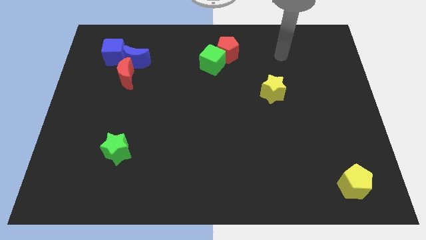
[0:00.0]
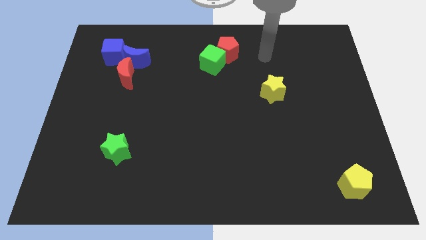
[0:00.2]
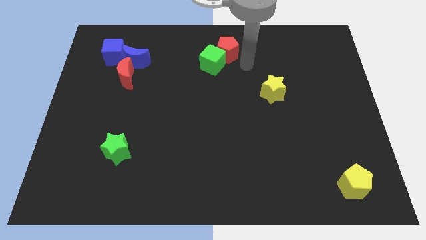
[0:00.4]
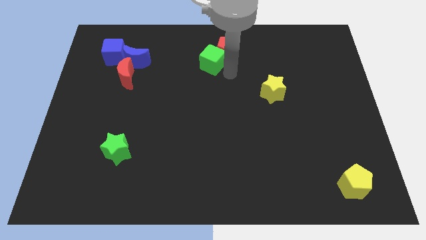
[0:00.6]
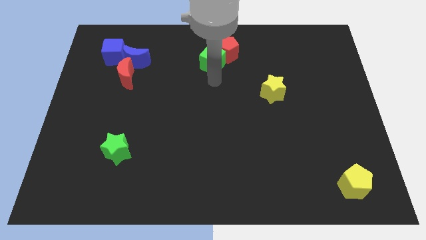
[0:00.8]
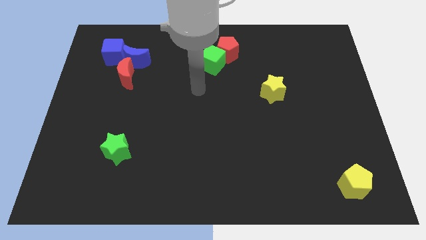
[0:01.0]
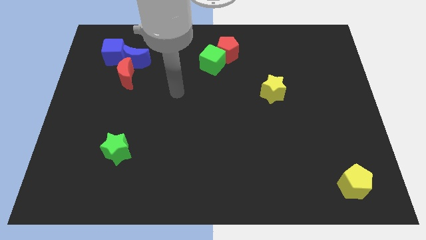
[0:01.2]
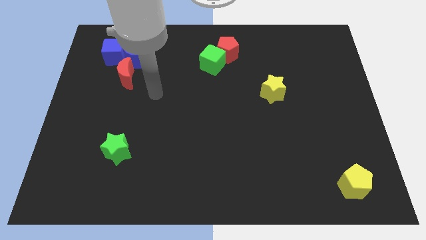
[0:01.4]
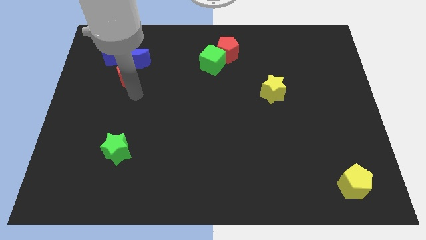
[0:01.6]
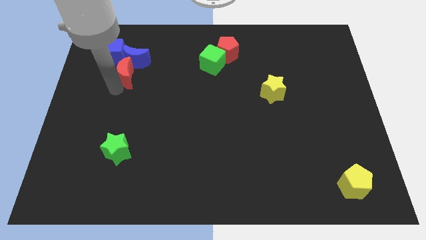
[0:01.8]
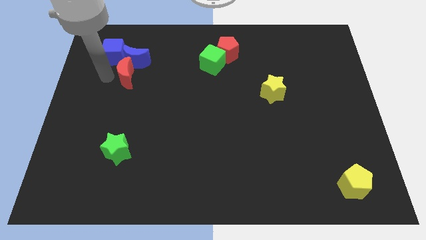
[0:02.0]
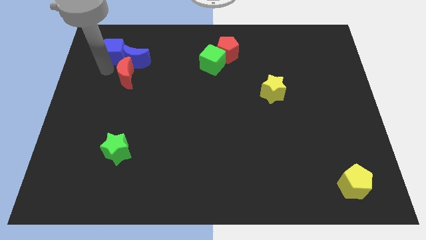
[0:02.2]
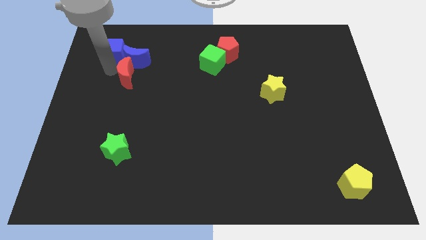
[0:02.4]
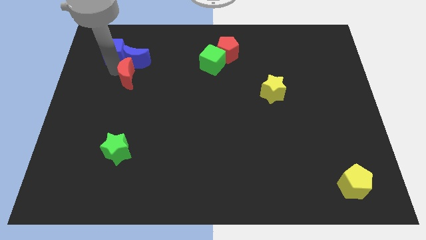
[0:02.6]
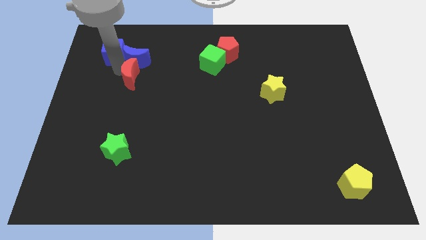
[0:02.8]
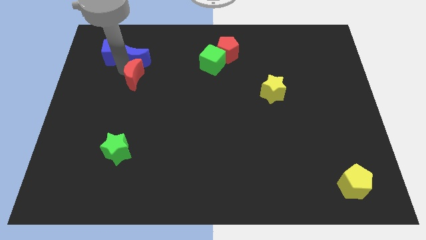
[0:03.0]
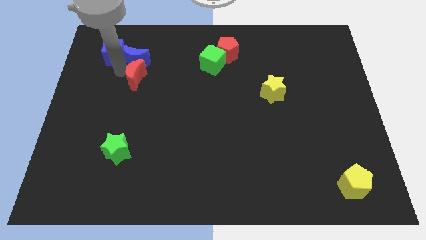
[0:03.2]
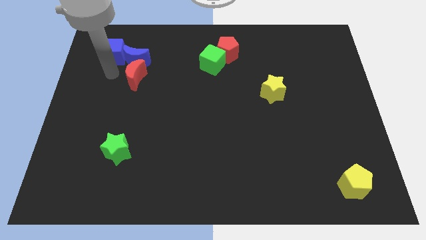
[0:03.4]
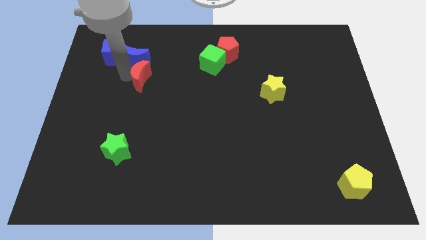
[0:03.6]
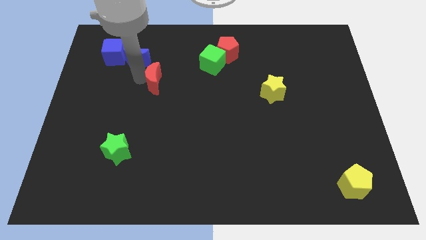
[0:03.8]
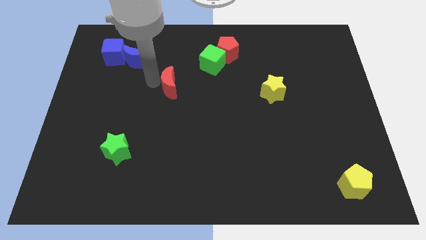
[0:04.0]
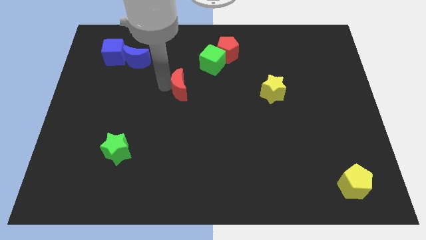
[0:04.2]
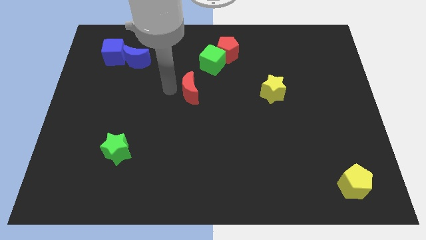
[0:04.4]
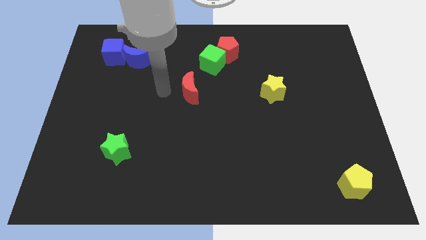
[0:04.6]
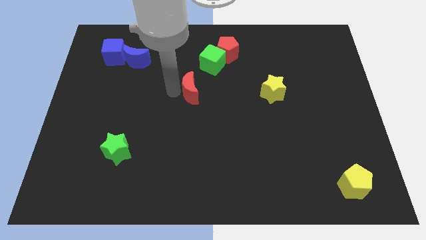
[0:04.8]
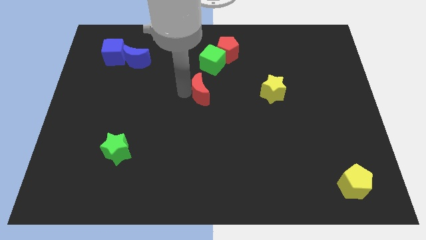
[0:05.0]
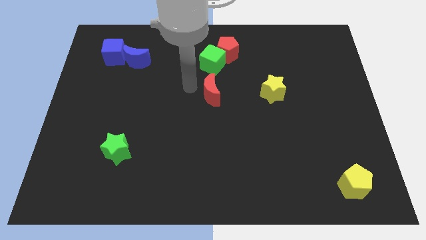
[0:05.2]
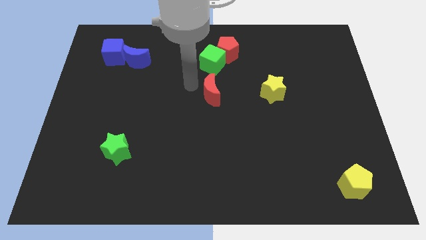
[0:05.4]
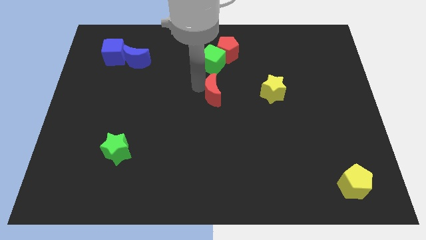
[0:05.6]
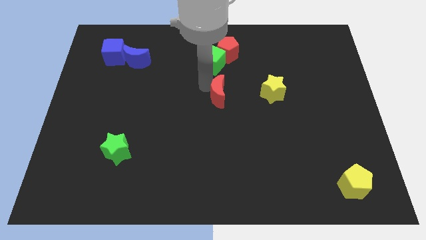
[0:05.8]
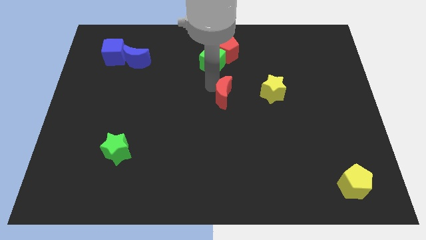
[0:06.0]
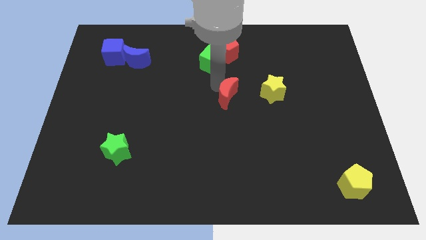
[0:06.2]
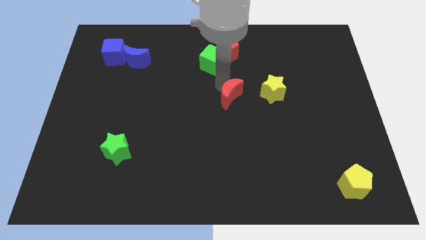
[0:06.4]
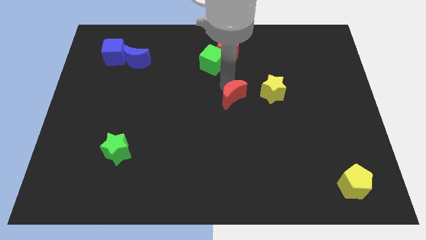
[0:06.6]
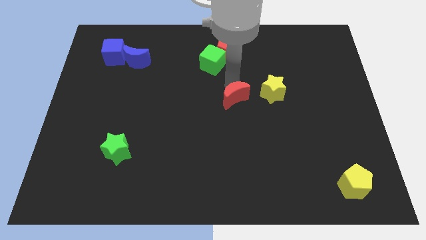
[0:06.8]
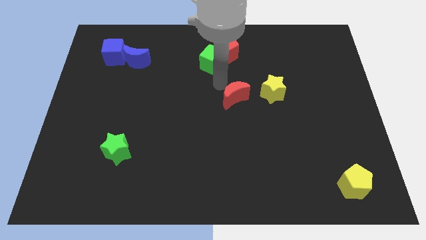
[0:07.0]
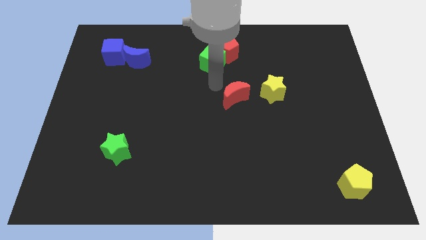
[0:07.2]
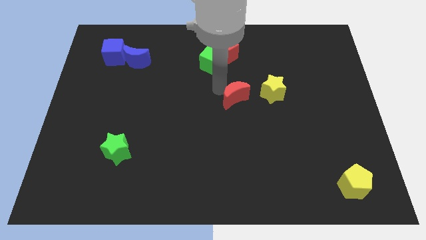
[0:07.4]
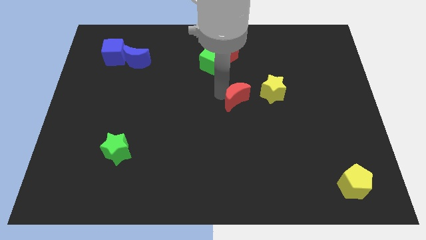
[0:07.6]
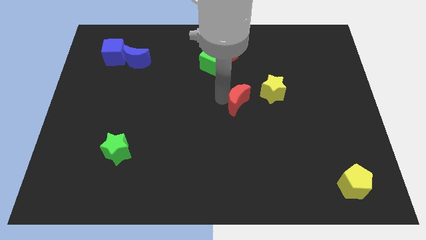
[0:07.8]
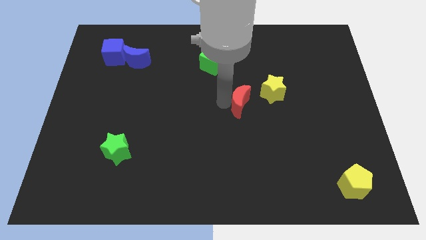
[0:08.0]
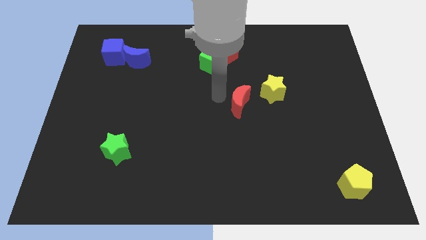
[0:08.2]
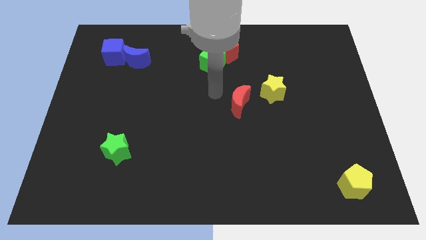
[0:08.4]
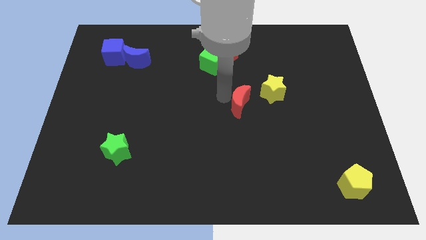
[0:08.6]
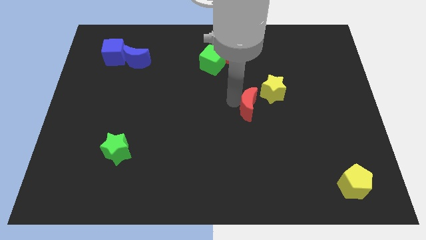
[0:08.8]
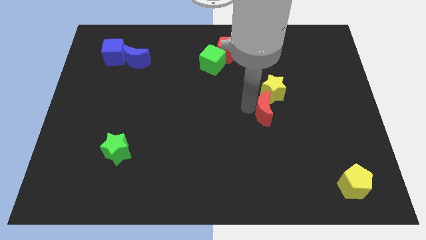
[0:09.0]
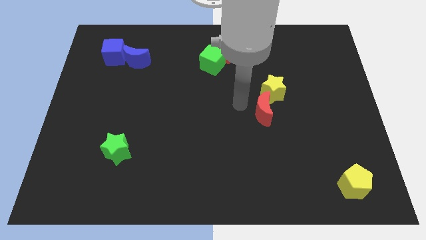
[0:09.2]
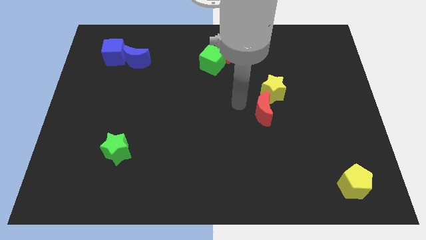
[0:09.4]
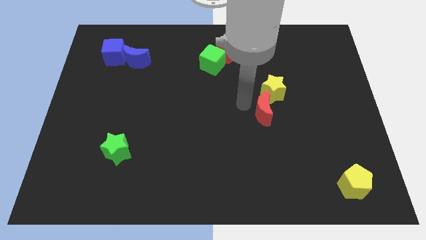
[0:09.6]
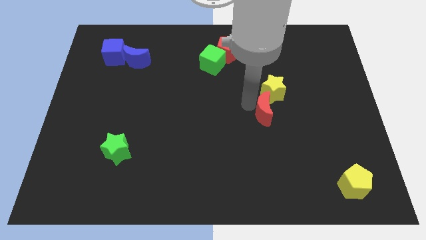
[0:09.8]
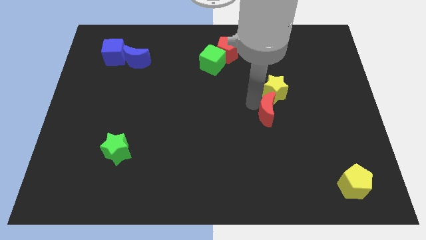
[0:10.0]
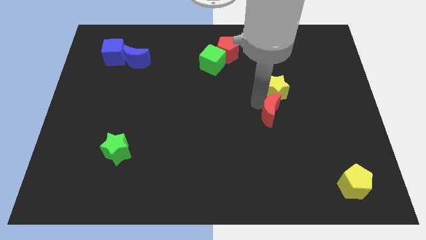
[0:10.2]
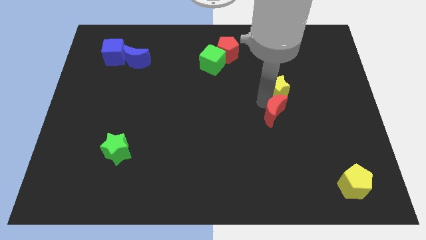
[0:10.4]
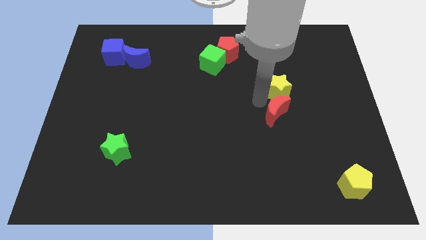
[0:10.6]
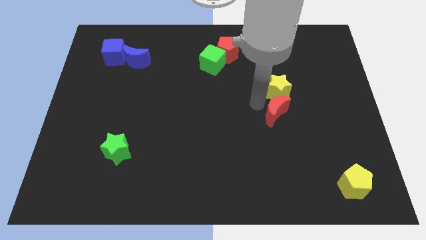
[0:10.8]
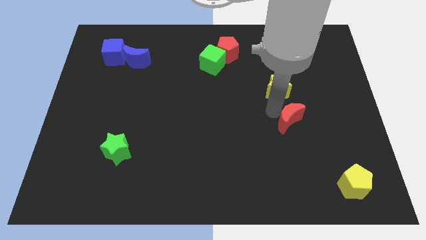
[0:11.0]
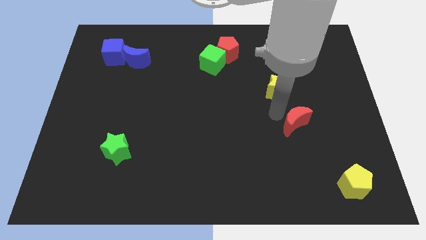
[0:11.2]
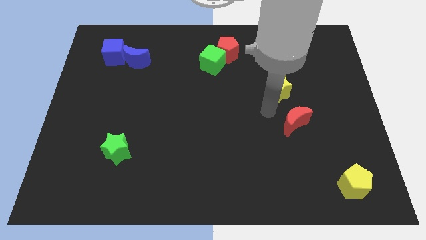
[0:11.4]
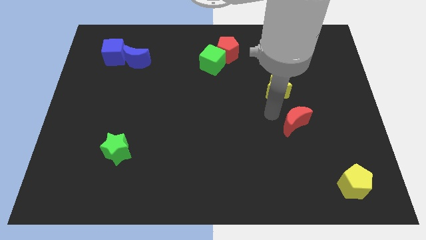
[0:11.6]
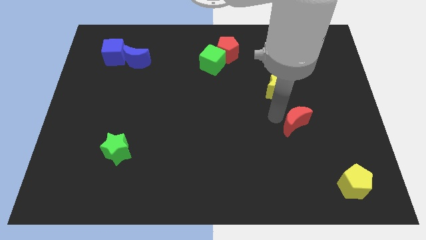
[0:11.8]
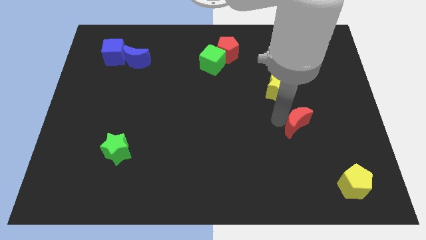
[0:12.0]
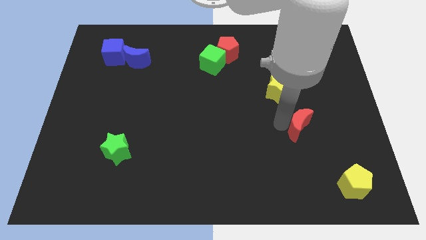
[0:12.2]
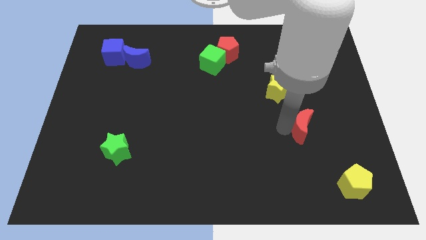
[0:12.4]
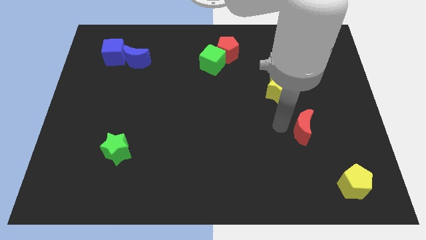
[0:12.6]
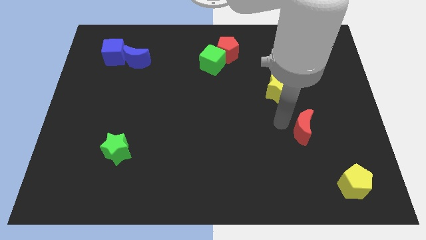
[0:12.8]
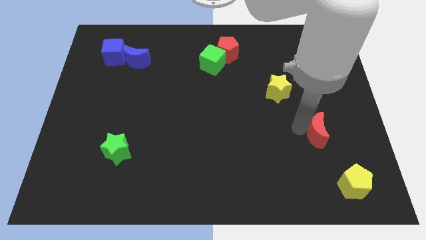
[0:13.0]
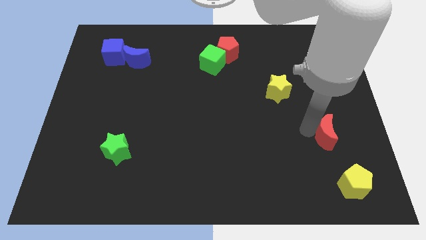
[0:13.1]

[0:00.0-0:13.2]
move the red moon to the top side of the yellow pentagon
